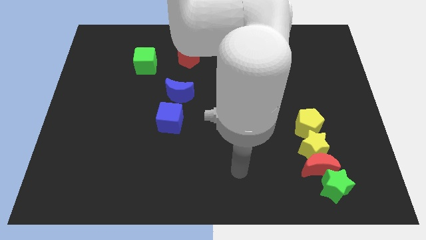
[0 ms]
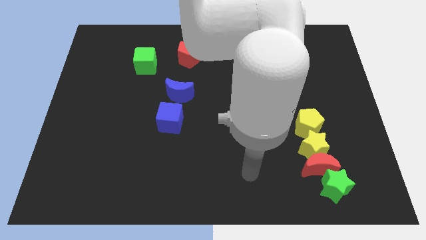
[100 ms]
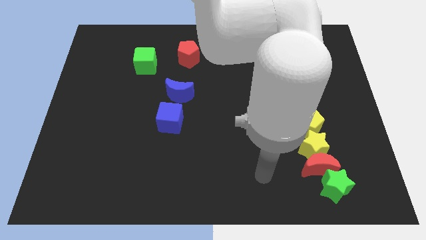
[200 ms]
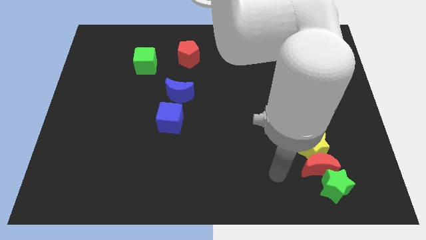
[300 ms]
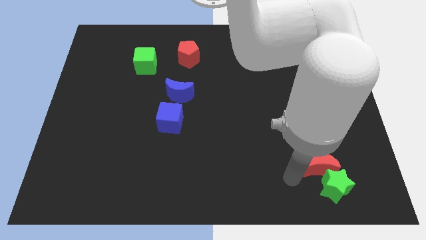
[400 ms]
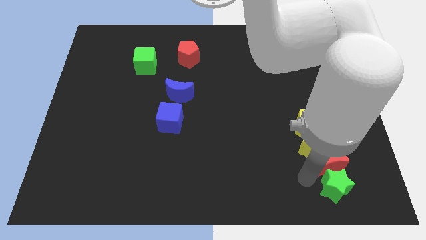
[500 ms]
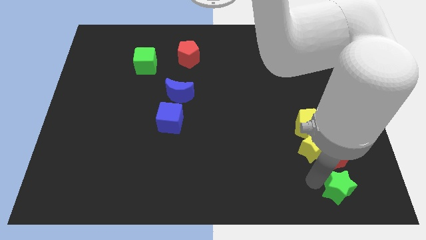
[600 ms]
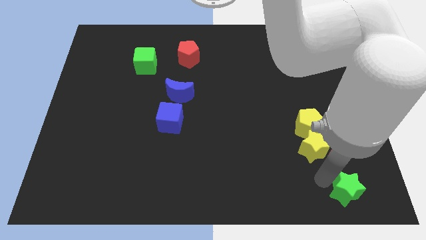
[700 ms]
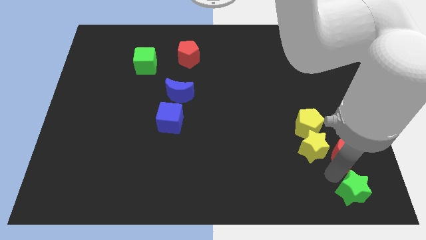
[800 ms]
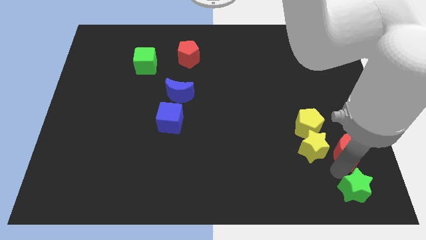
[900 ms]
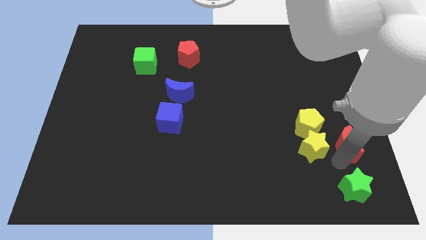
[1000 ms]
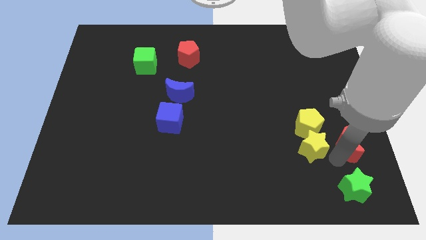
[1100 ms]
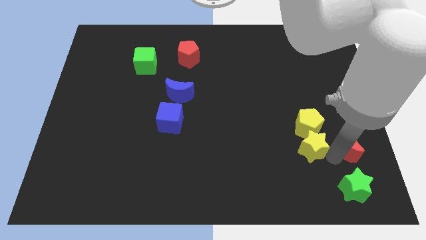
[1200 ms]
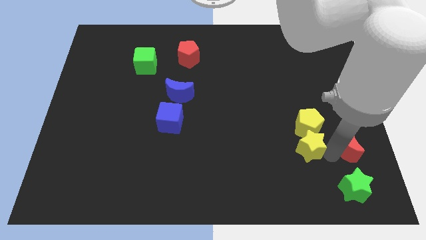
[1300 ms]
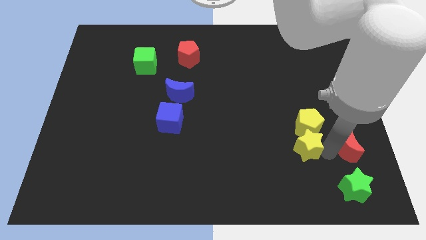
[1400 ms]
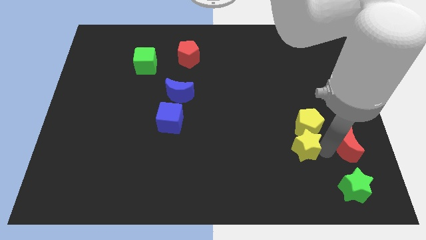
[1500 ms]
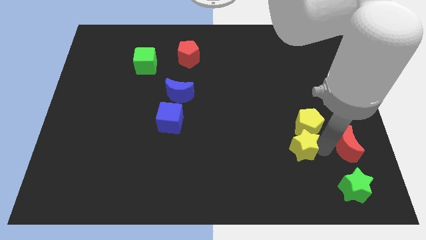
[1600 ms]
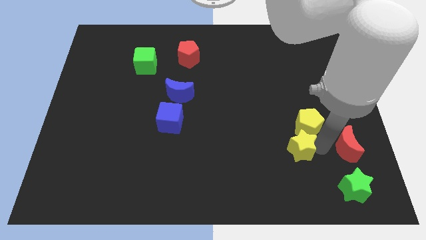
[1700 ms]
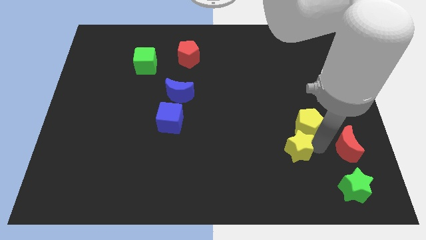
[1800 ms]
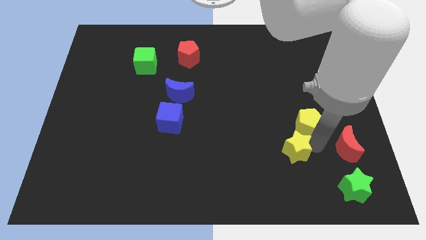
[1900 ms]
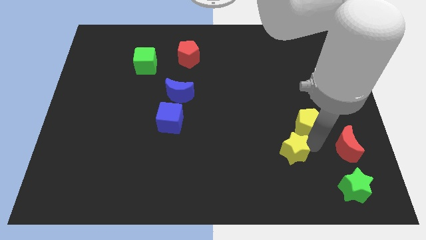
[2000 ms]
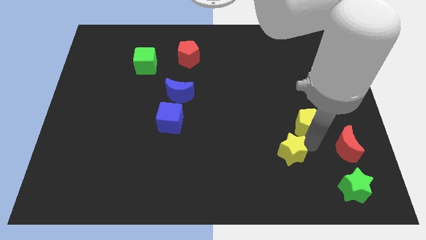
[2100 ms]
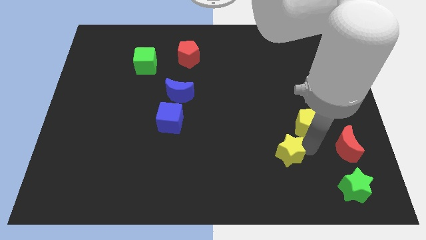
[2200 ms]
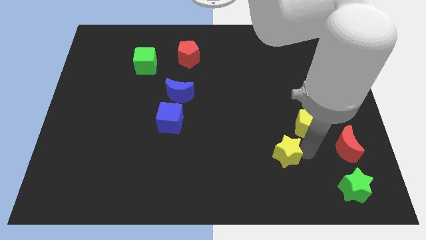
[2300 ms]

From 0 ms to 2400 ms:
pull the yellow star apart from the red moon, yellow pentagon, and green star

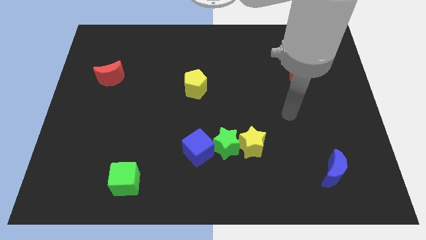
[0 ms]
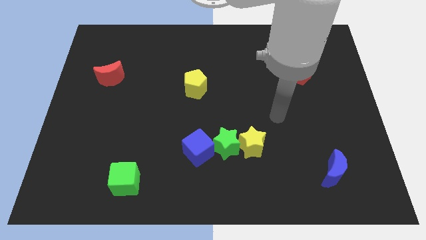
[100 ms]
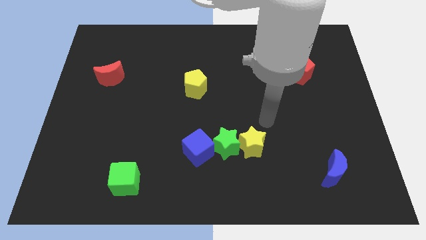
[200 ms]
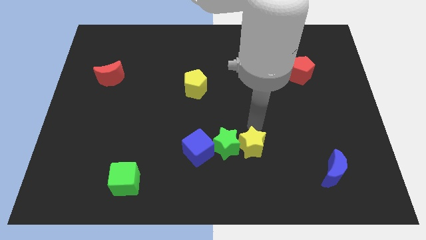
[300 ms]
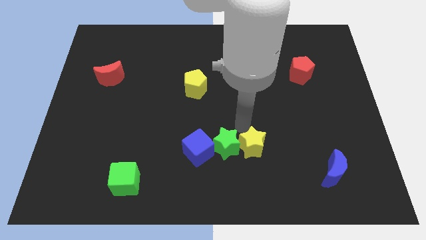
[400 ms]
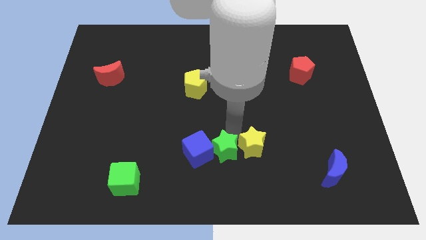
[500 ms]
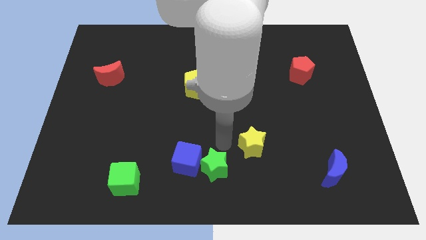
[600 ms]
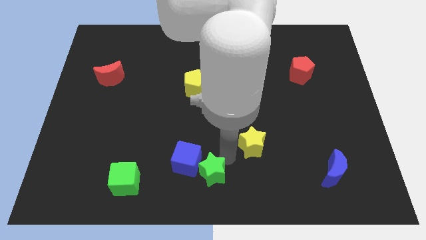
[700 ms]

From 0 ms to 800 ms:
pull the yellow star apart from the green star

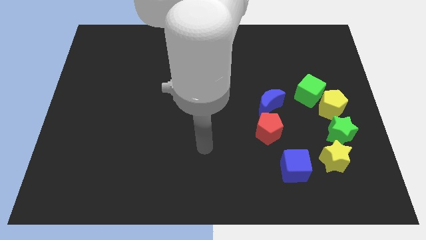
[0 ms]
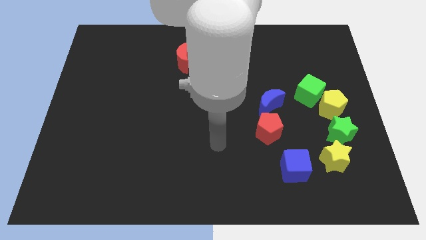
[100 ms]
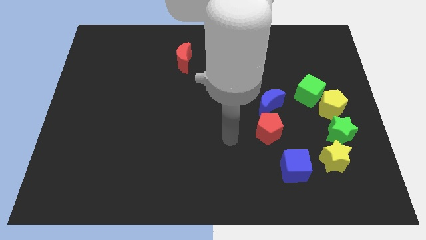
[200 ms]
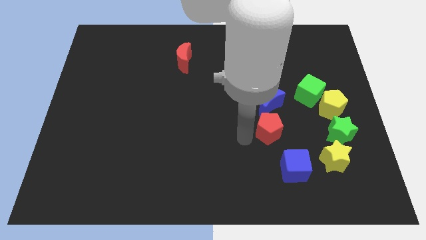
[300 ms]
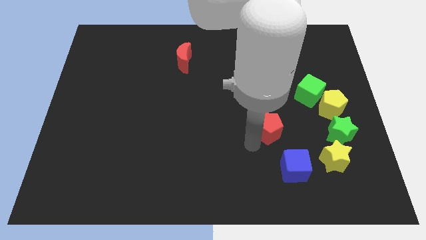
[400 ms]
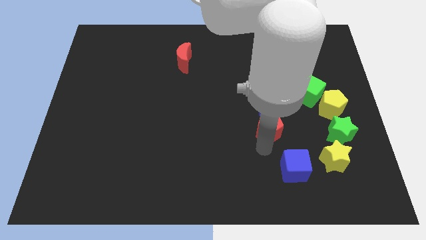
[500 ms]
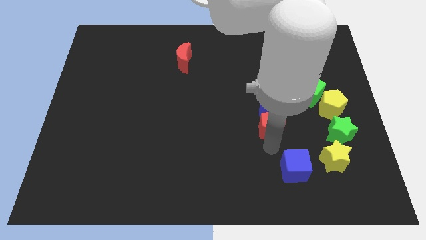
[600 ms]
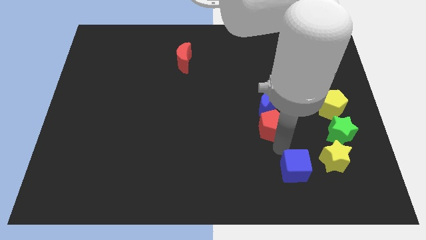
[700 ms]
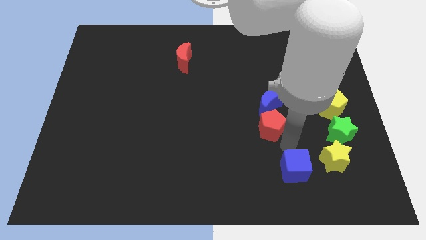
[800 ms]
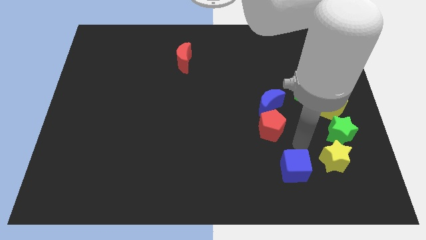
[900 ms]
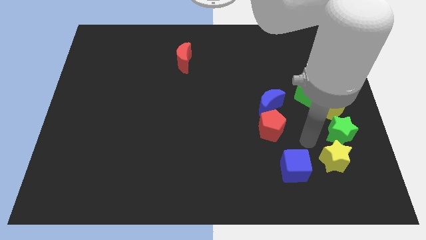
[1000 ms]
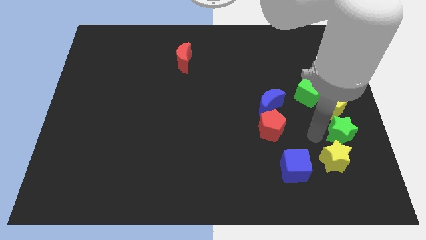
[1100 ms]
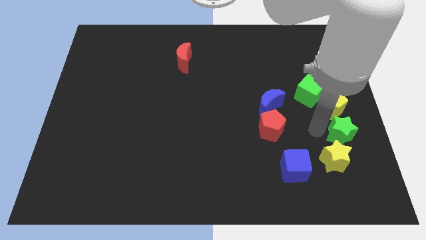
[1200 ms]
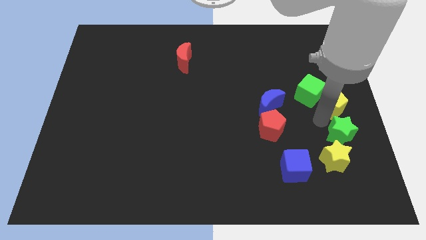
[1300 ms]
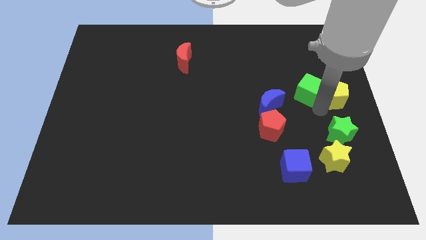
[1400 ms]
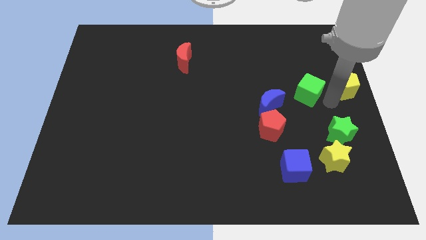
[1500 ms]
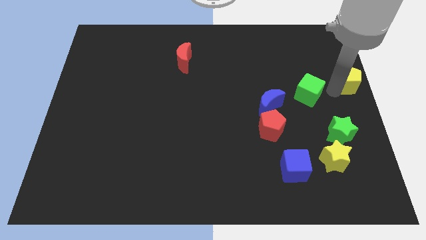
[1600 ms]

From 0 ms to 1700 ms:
pull the green cube apart from the yellow pentagon

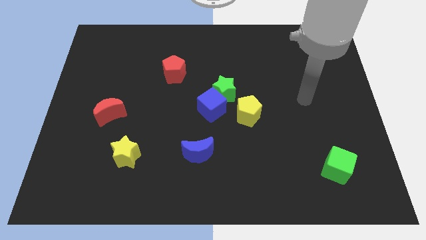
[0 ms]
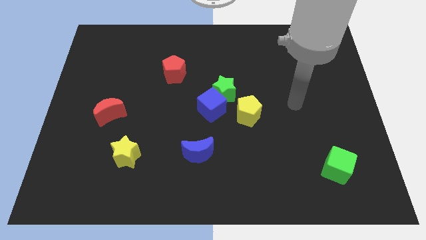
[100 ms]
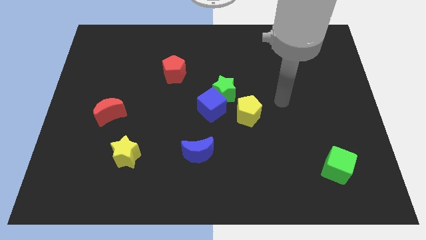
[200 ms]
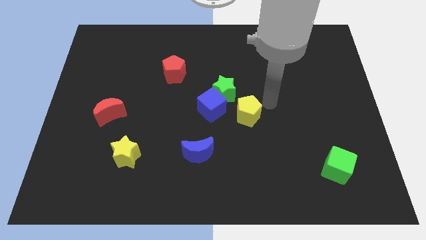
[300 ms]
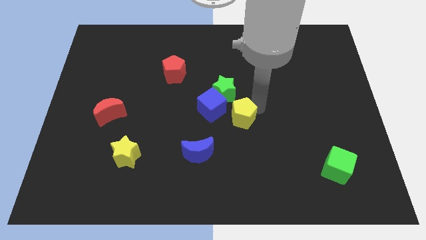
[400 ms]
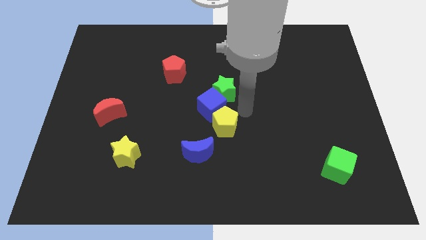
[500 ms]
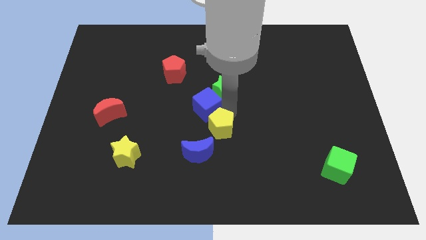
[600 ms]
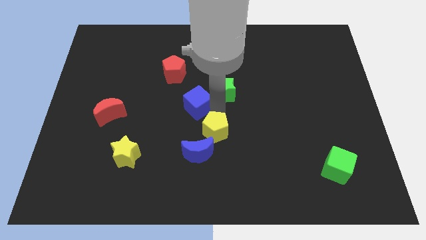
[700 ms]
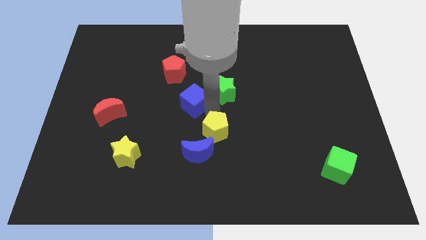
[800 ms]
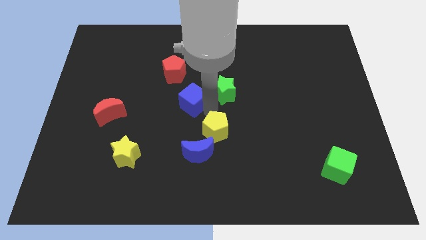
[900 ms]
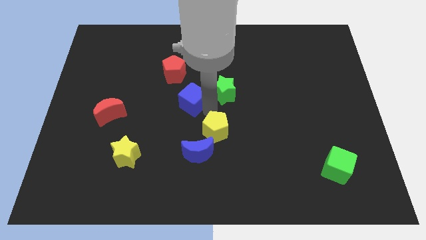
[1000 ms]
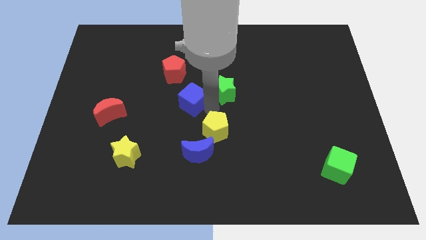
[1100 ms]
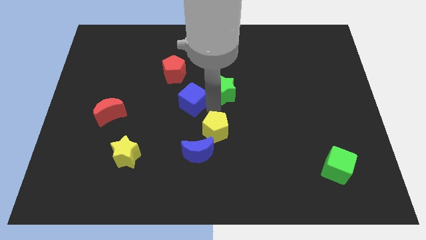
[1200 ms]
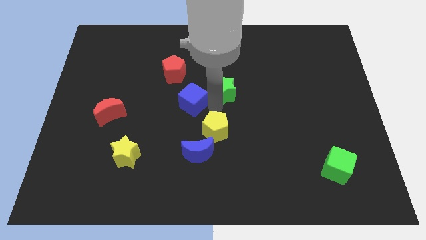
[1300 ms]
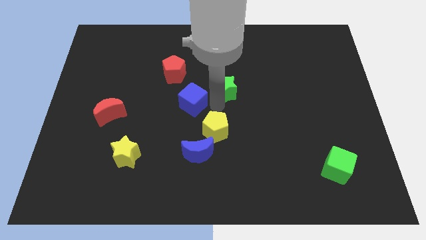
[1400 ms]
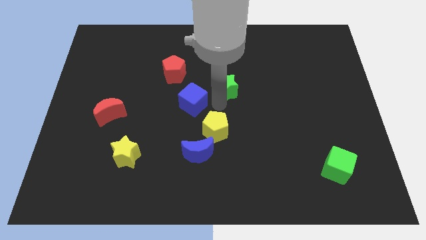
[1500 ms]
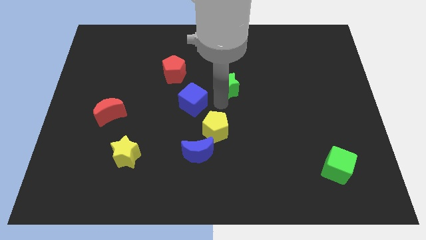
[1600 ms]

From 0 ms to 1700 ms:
move the green star away from the blue cube and yellow pentagon

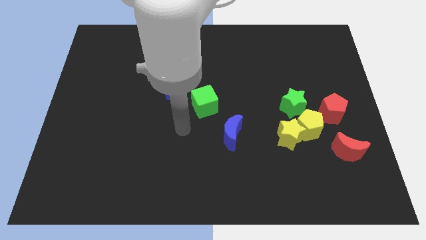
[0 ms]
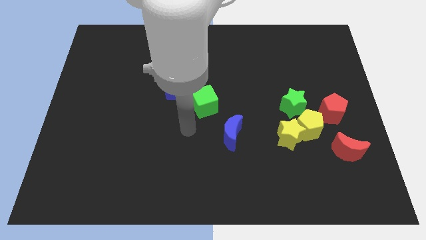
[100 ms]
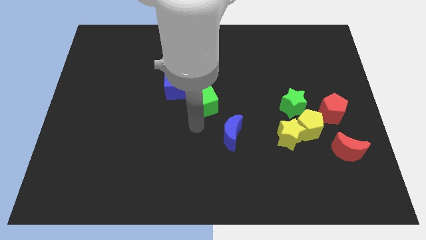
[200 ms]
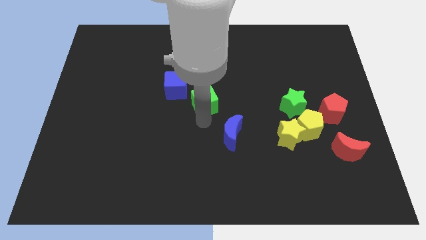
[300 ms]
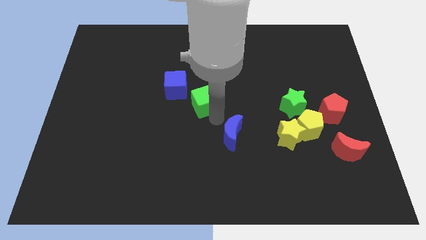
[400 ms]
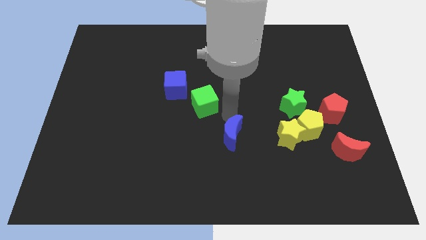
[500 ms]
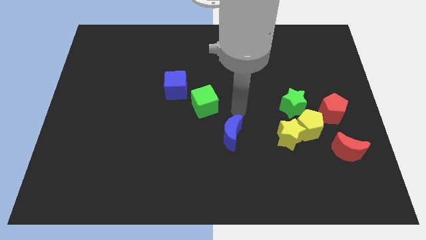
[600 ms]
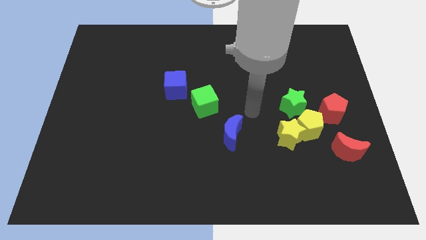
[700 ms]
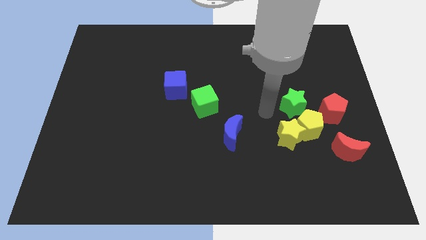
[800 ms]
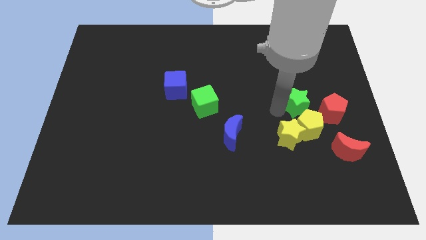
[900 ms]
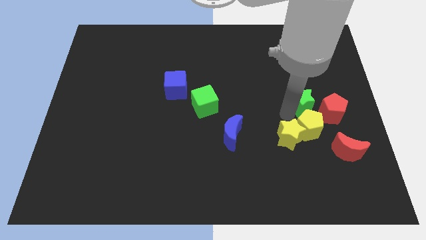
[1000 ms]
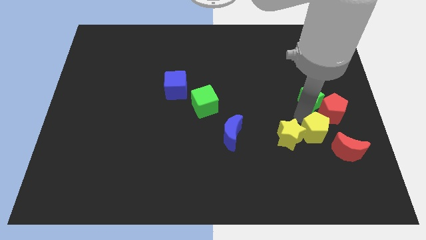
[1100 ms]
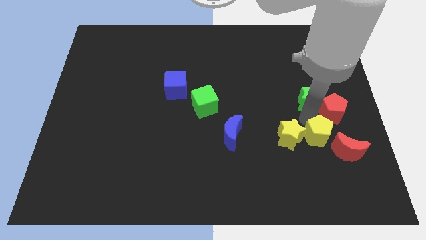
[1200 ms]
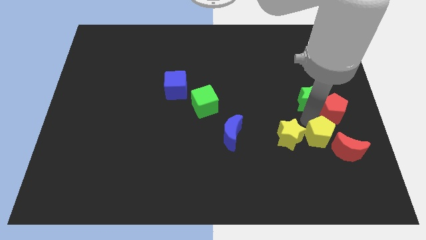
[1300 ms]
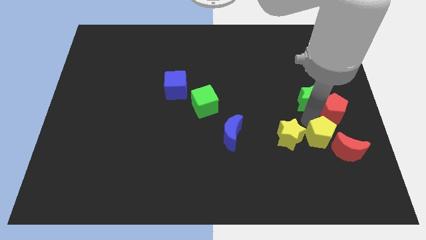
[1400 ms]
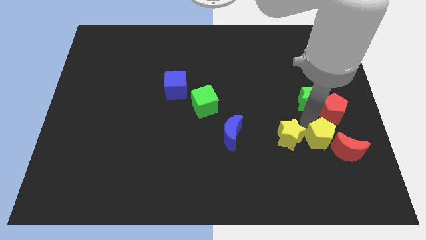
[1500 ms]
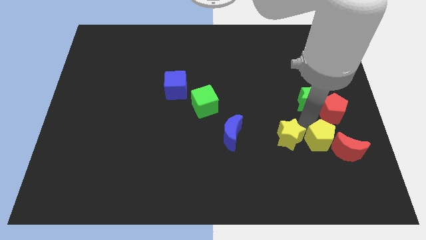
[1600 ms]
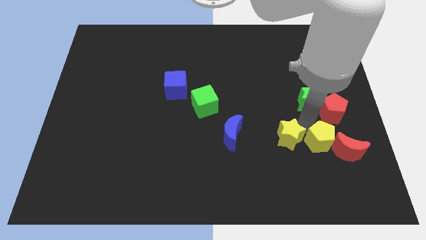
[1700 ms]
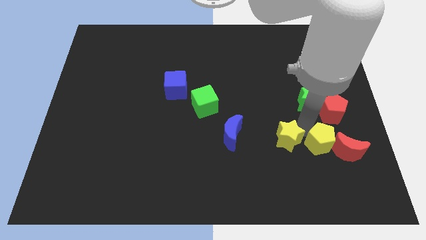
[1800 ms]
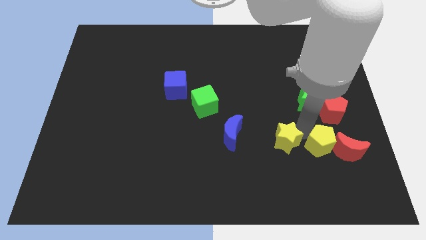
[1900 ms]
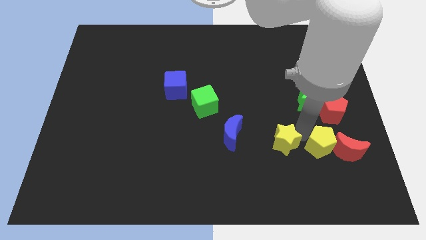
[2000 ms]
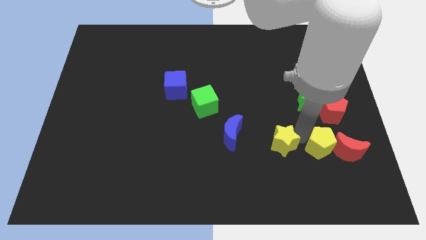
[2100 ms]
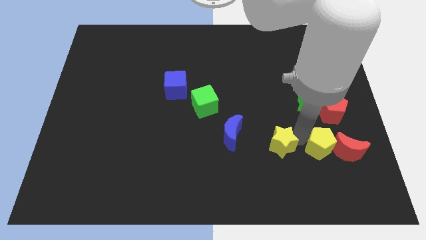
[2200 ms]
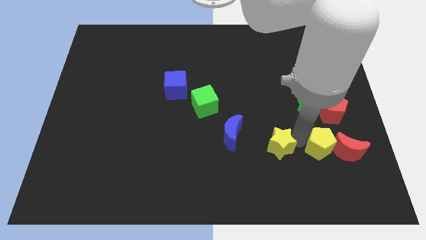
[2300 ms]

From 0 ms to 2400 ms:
pull the yellow star apart from the yellow pentagon and green star

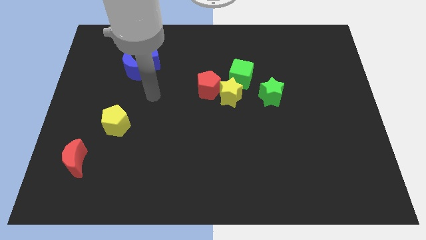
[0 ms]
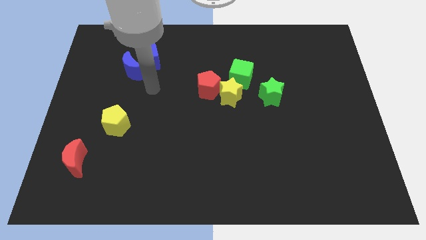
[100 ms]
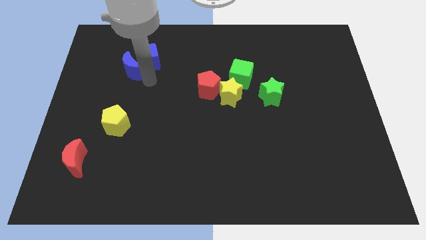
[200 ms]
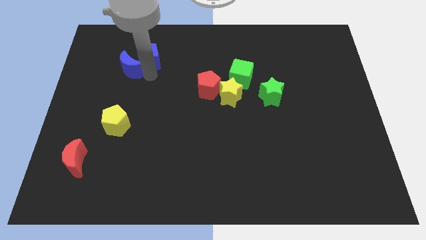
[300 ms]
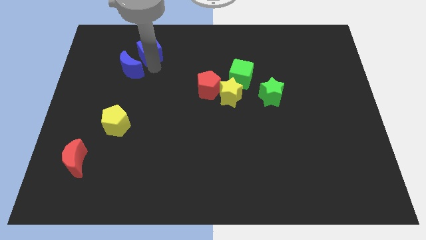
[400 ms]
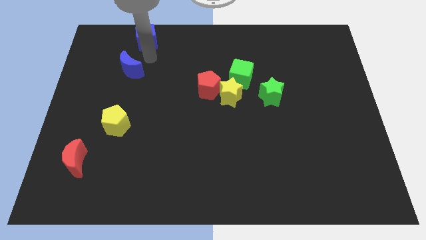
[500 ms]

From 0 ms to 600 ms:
separate the blue moon from the blue cube
